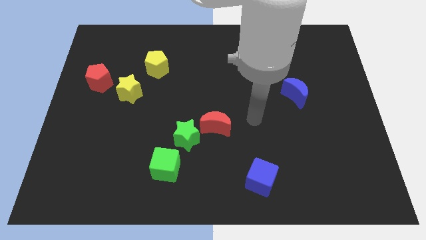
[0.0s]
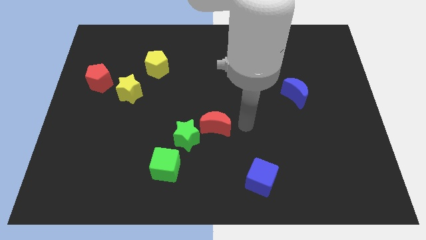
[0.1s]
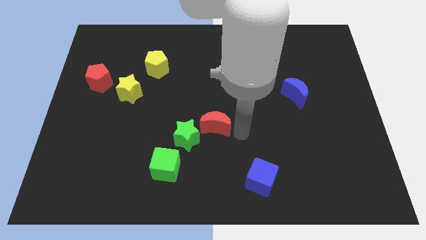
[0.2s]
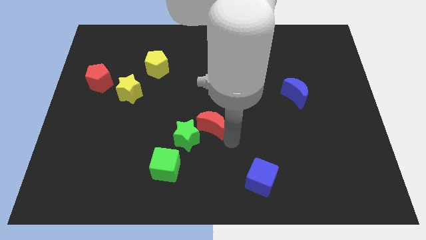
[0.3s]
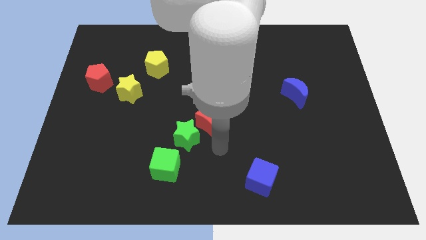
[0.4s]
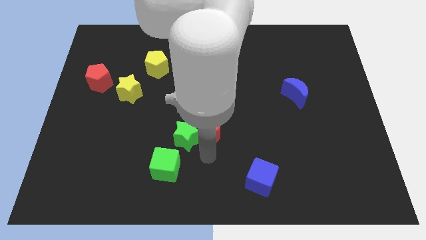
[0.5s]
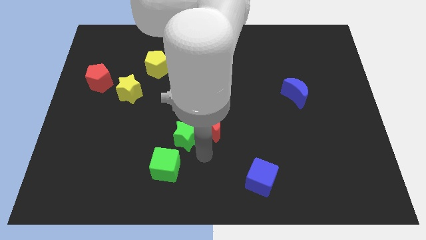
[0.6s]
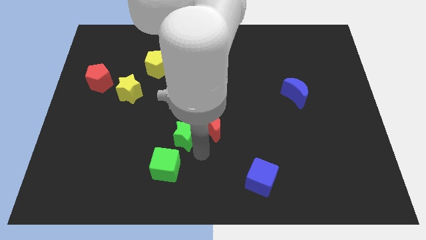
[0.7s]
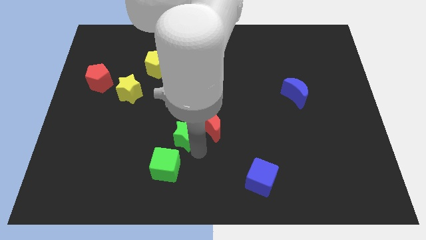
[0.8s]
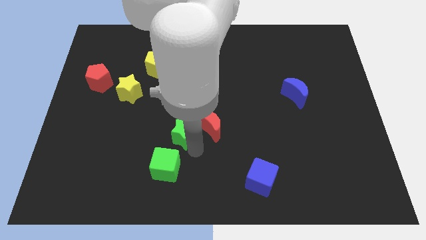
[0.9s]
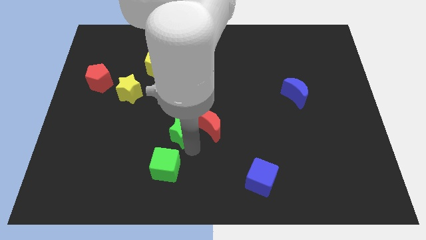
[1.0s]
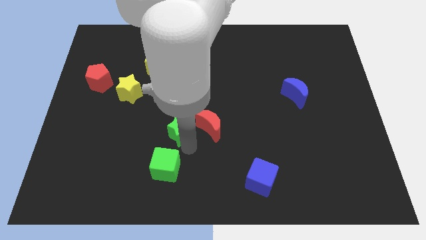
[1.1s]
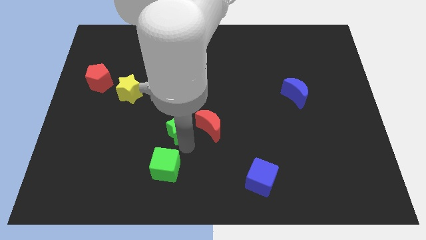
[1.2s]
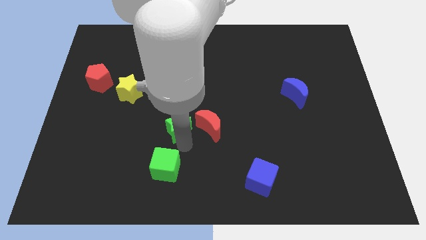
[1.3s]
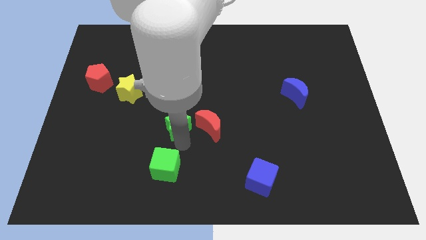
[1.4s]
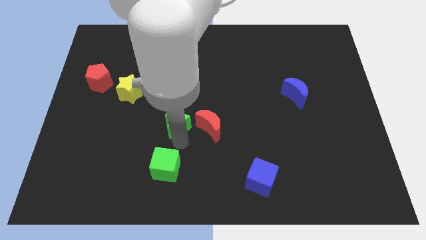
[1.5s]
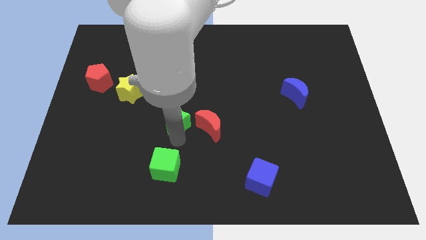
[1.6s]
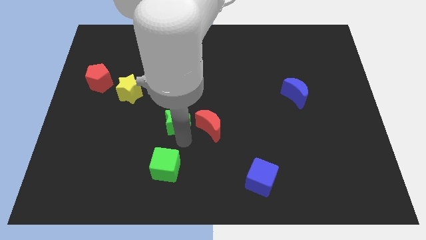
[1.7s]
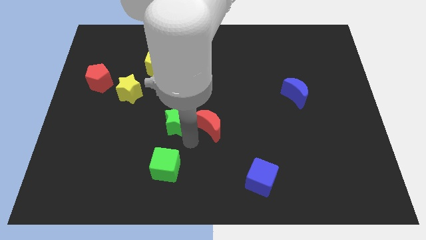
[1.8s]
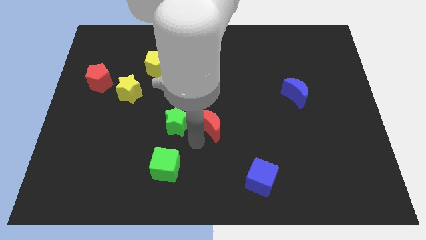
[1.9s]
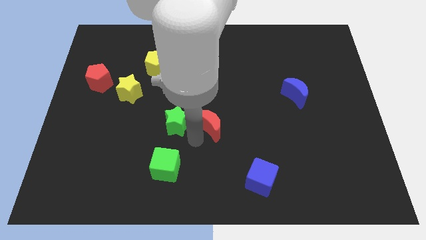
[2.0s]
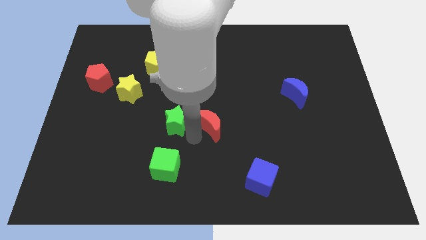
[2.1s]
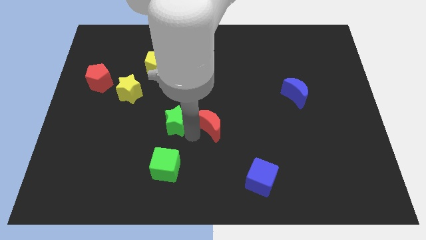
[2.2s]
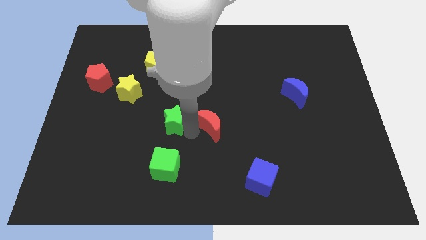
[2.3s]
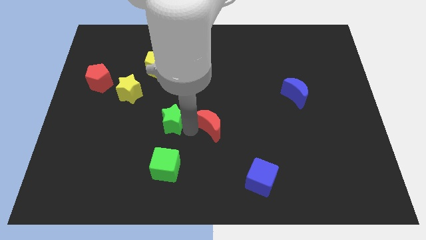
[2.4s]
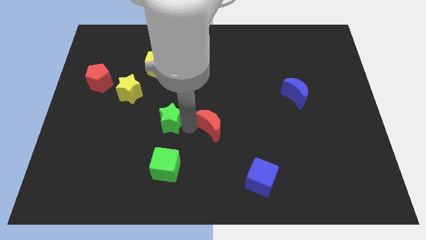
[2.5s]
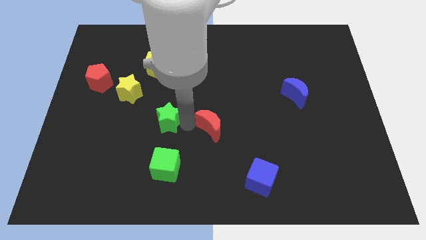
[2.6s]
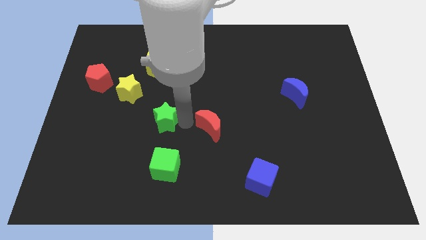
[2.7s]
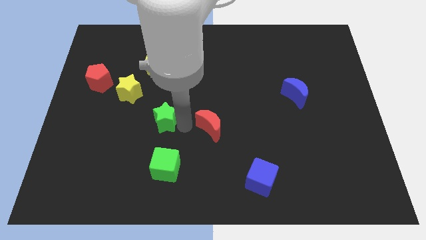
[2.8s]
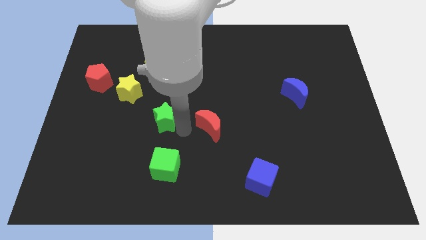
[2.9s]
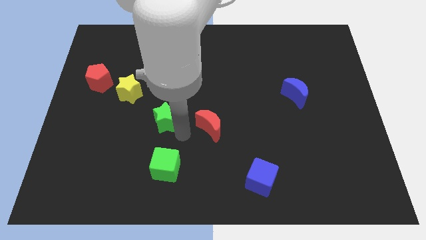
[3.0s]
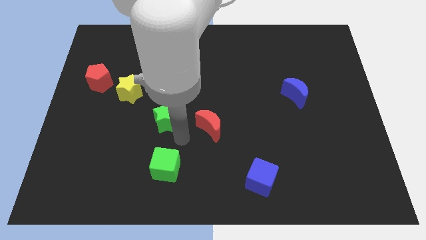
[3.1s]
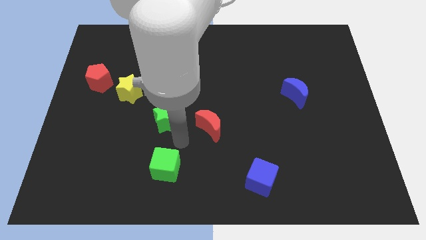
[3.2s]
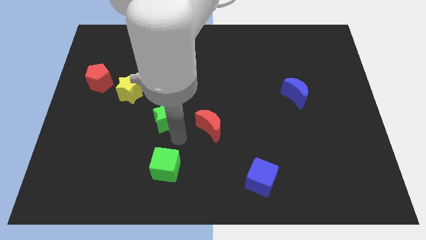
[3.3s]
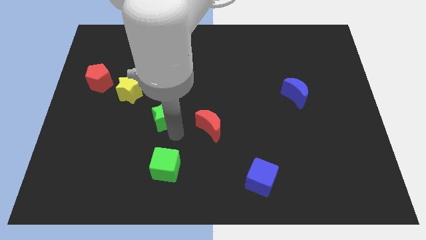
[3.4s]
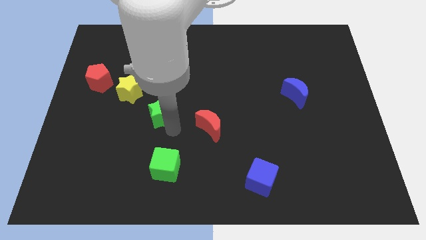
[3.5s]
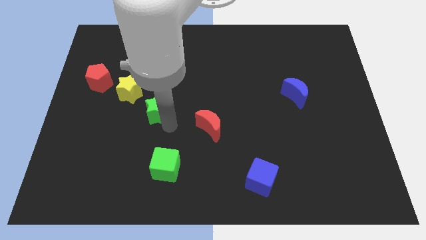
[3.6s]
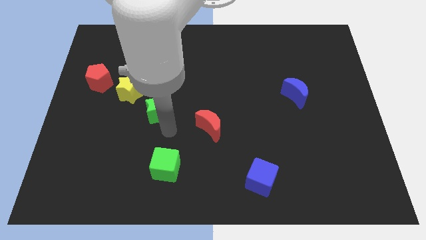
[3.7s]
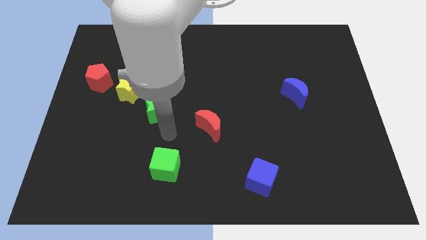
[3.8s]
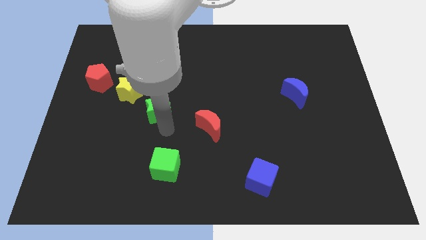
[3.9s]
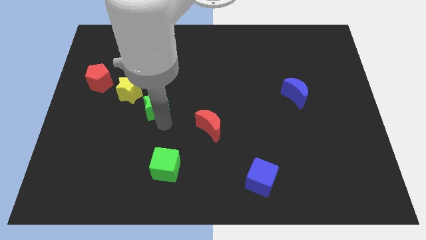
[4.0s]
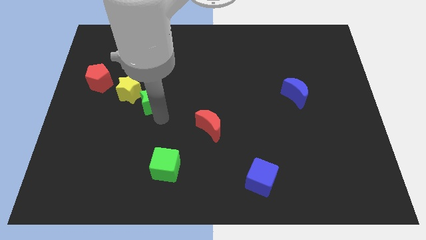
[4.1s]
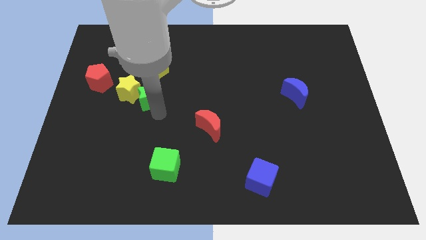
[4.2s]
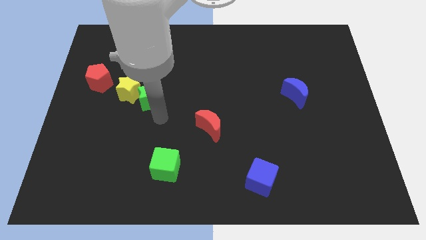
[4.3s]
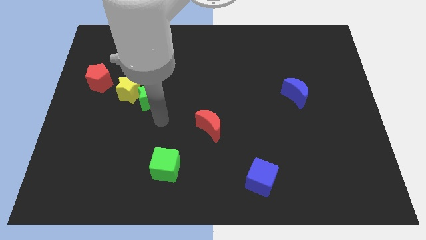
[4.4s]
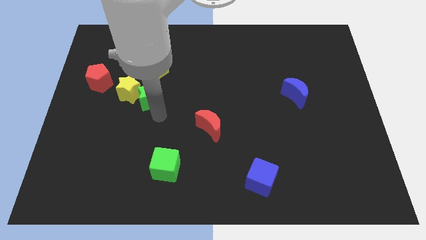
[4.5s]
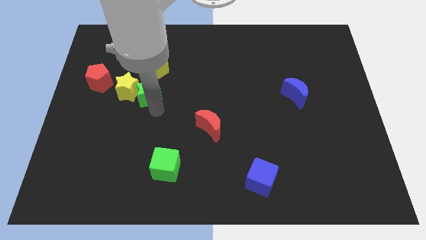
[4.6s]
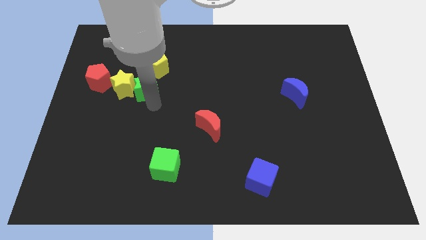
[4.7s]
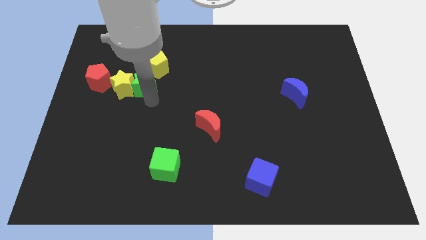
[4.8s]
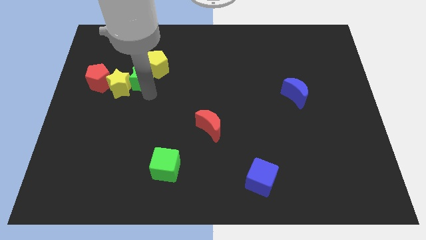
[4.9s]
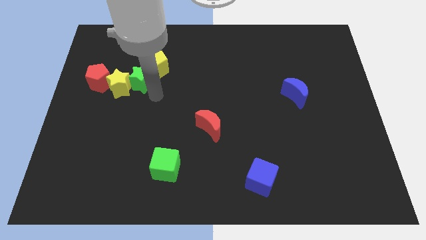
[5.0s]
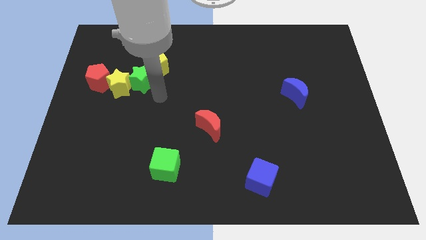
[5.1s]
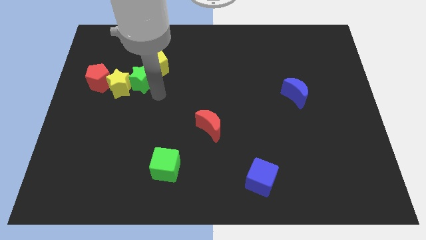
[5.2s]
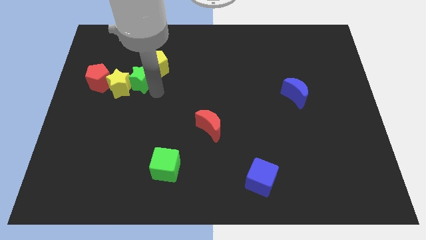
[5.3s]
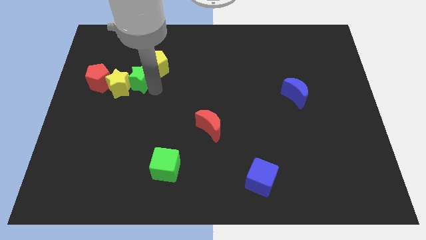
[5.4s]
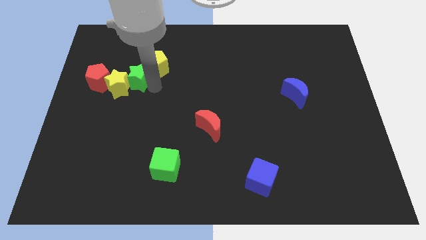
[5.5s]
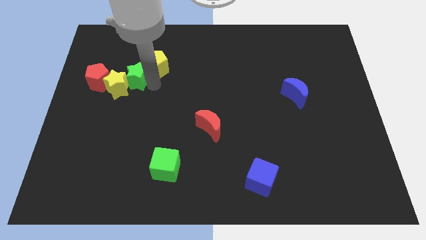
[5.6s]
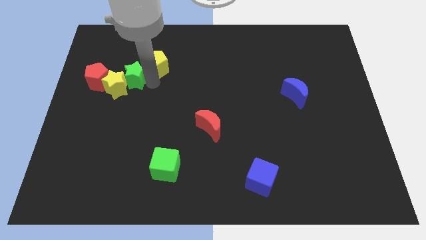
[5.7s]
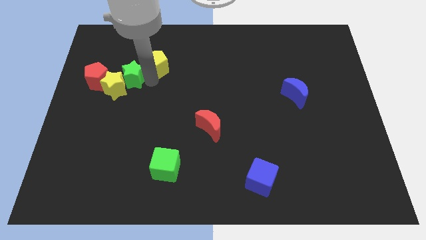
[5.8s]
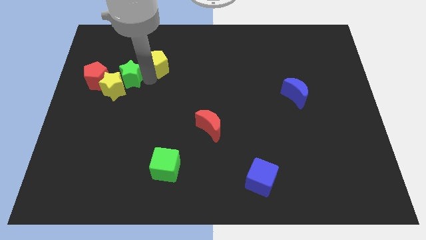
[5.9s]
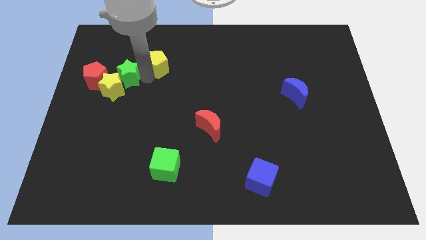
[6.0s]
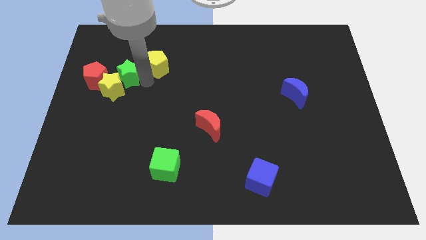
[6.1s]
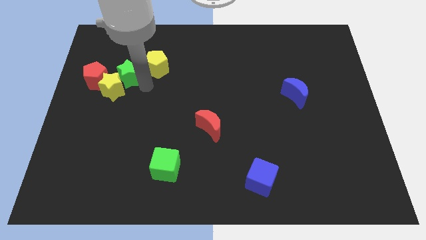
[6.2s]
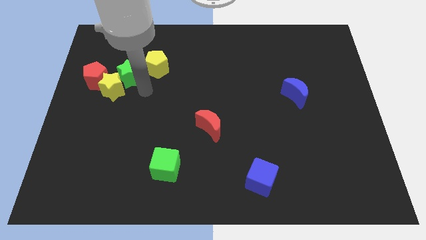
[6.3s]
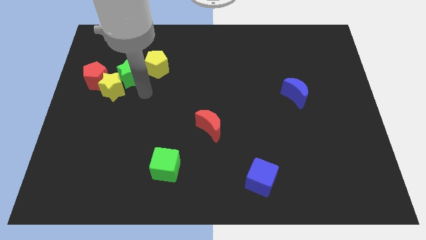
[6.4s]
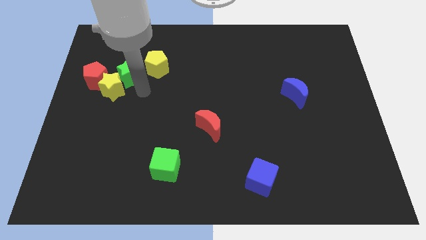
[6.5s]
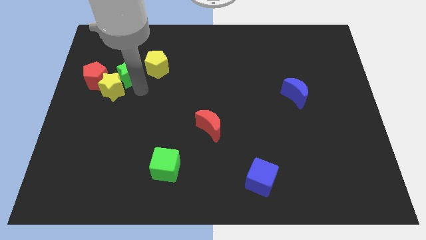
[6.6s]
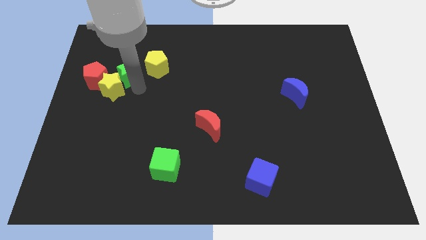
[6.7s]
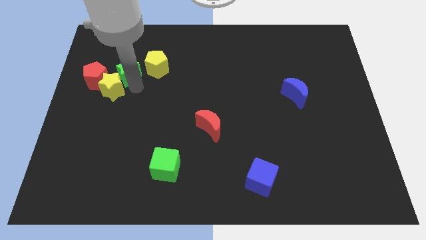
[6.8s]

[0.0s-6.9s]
slide the green star diagonally up and to the right of the red pentagon

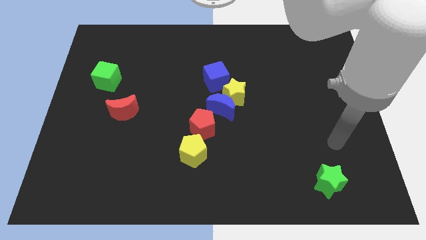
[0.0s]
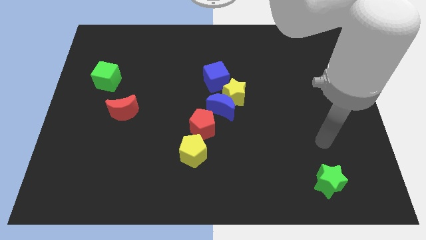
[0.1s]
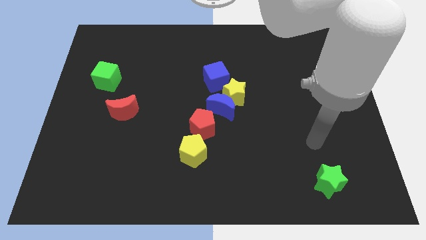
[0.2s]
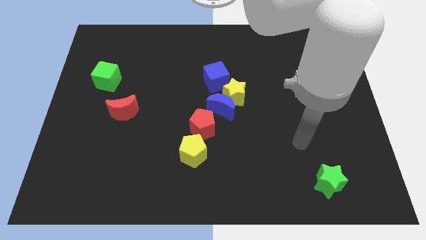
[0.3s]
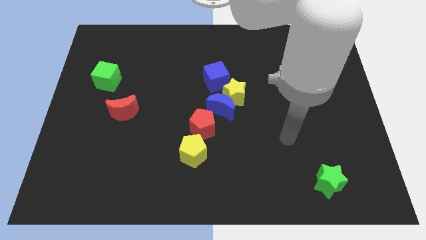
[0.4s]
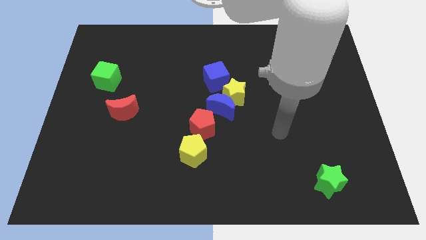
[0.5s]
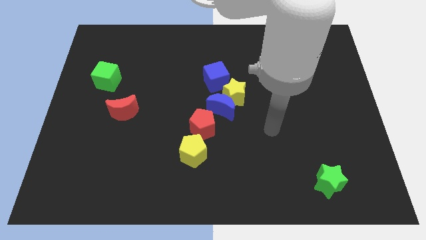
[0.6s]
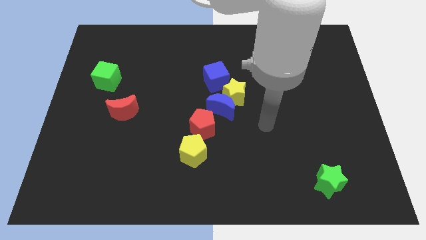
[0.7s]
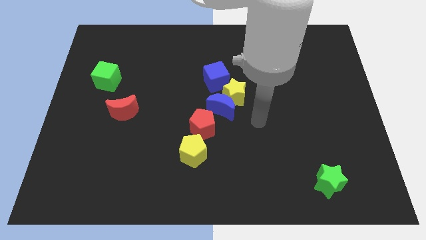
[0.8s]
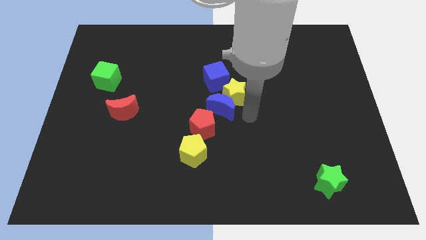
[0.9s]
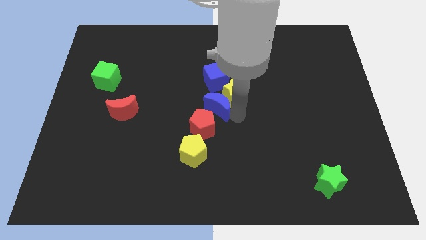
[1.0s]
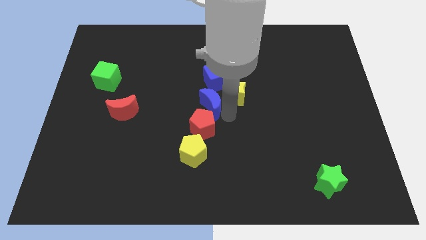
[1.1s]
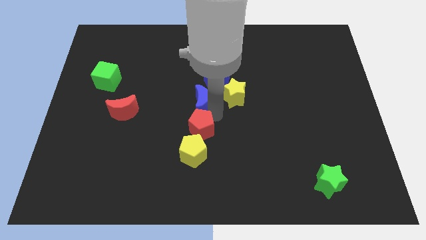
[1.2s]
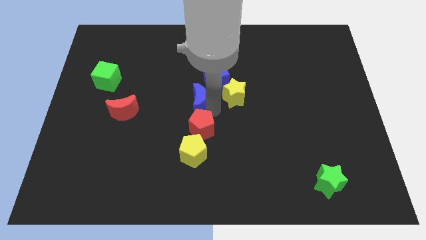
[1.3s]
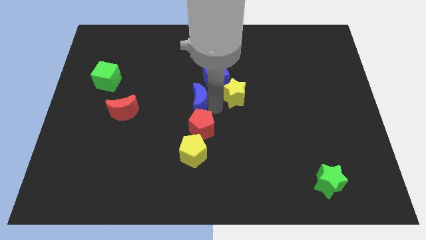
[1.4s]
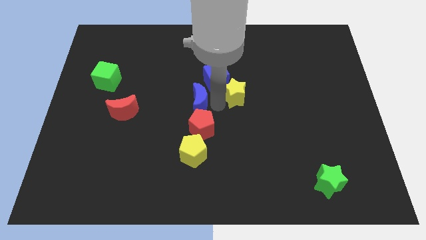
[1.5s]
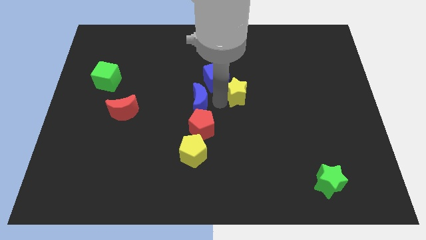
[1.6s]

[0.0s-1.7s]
push the yellow star to the right side of the blue cube
